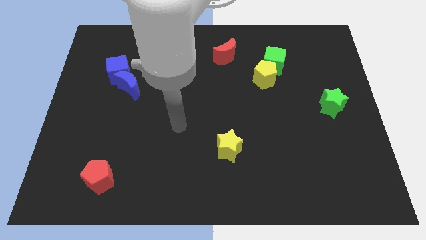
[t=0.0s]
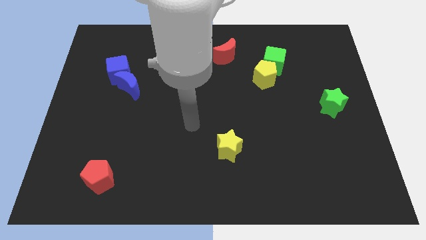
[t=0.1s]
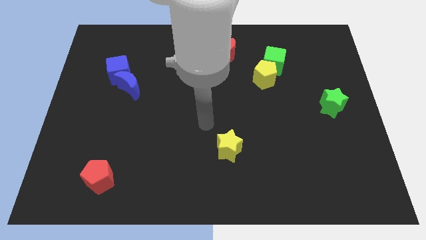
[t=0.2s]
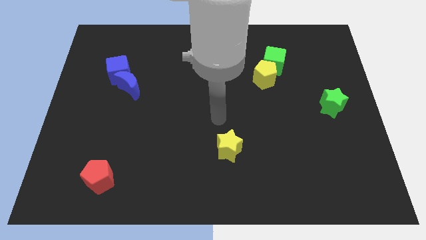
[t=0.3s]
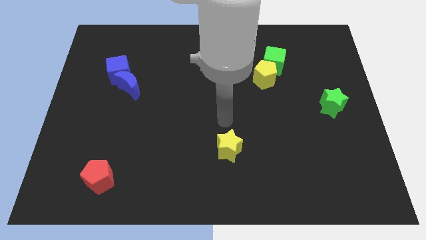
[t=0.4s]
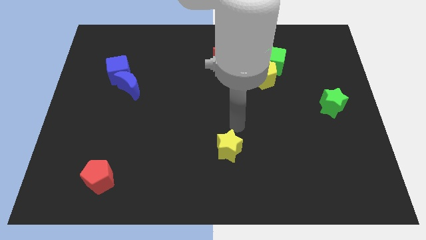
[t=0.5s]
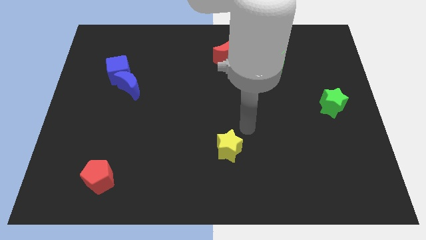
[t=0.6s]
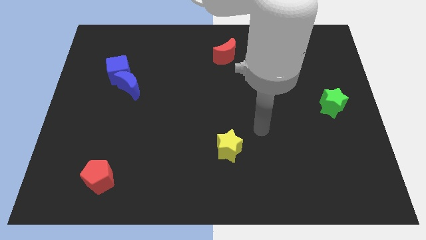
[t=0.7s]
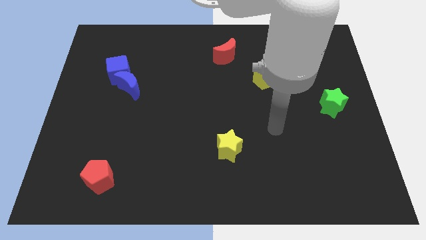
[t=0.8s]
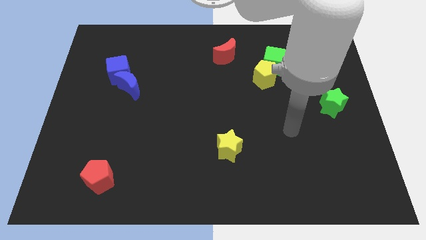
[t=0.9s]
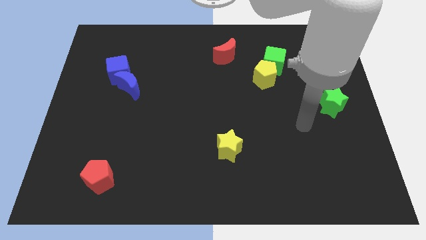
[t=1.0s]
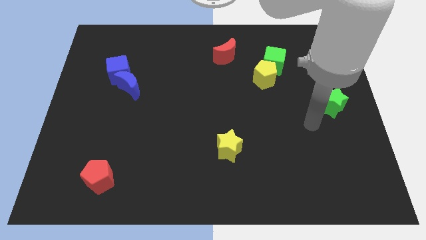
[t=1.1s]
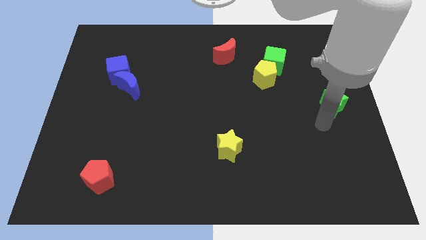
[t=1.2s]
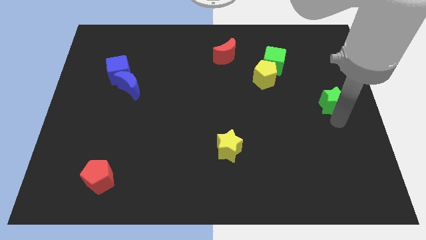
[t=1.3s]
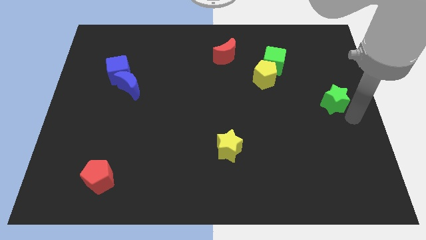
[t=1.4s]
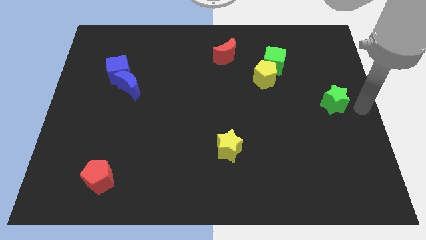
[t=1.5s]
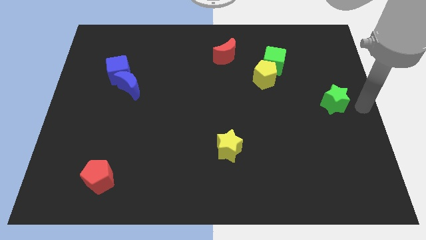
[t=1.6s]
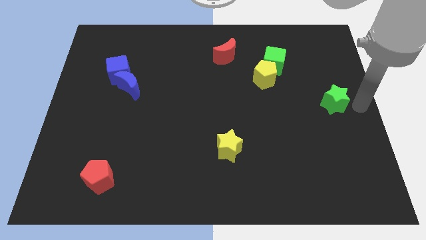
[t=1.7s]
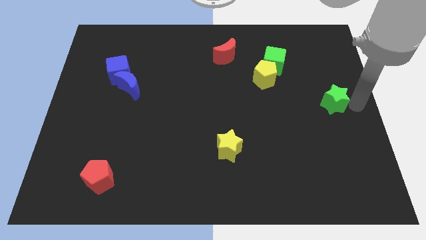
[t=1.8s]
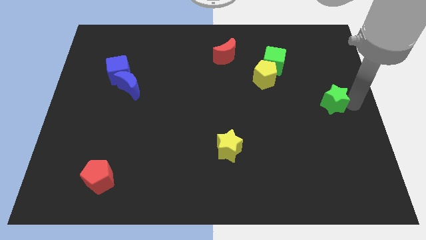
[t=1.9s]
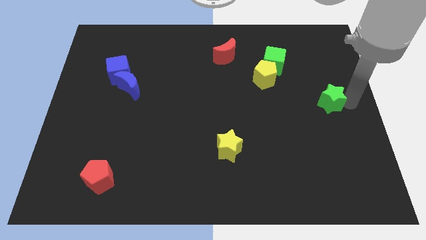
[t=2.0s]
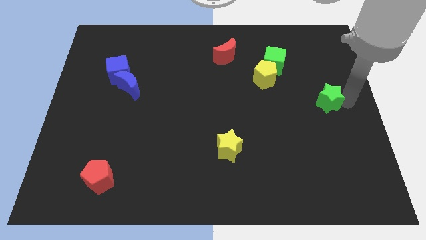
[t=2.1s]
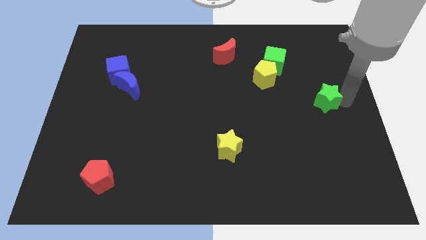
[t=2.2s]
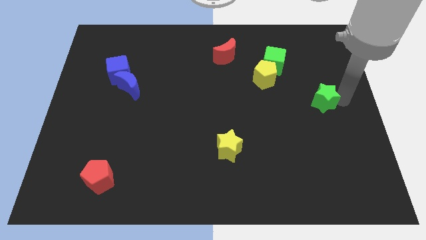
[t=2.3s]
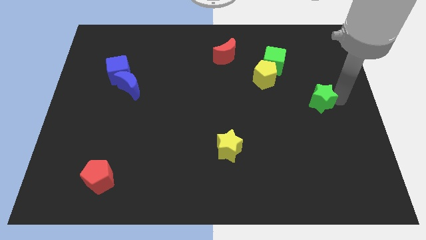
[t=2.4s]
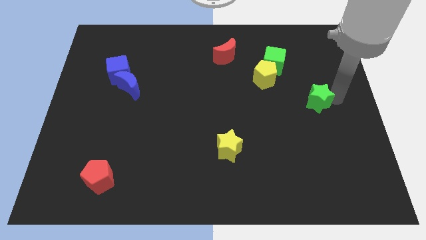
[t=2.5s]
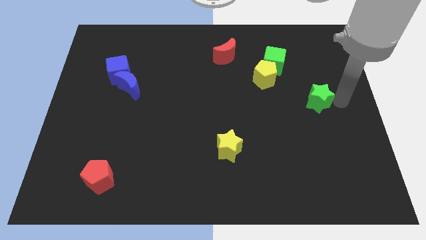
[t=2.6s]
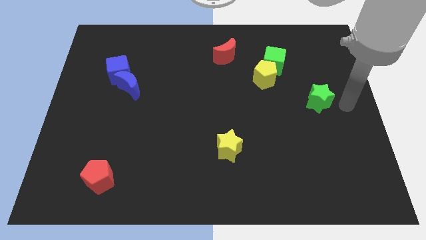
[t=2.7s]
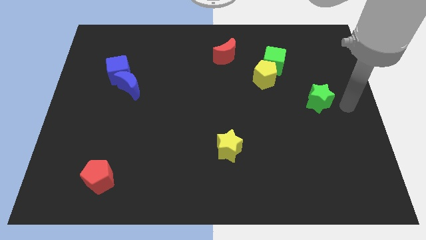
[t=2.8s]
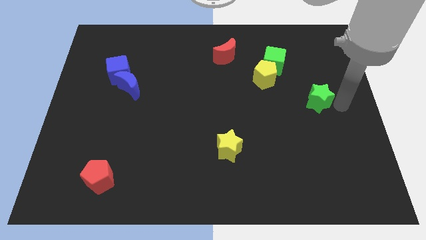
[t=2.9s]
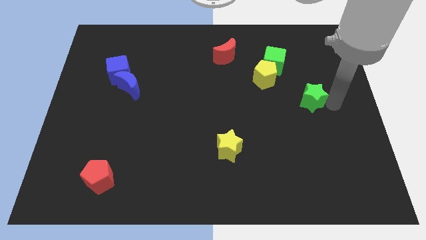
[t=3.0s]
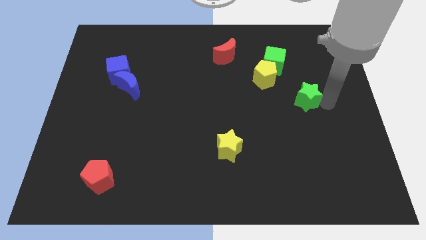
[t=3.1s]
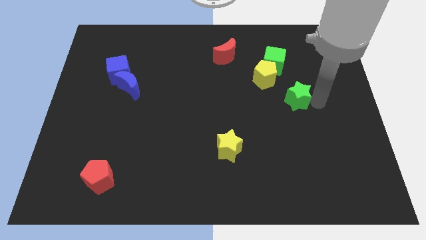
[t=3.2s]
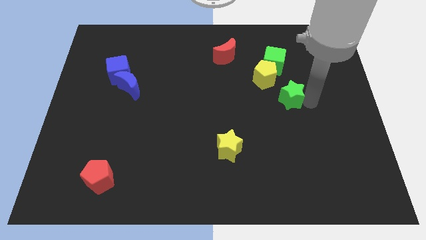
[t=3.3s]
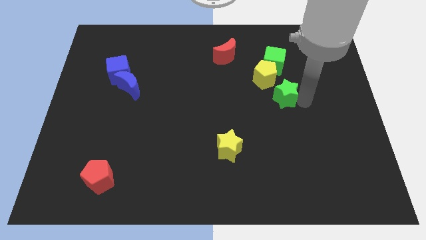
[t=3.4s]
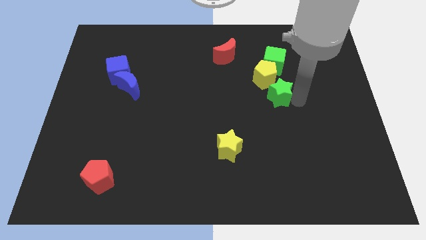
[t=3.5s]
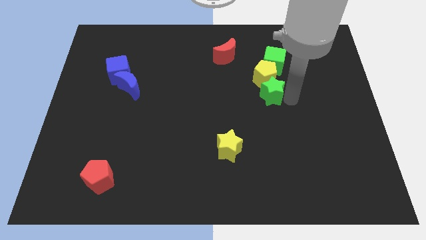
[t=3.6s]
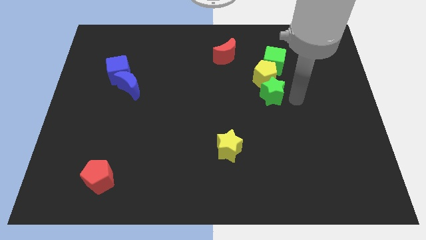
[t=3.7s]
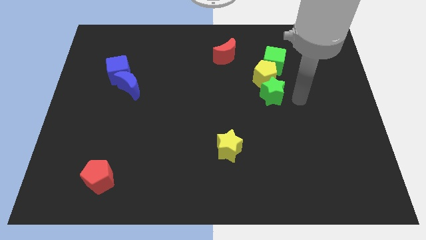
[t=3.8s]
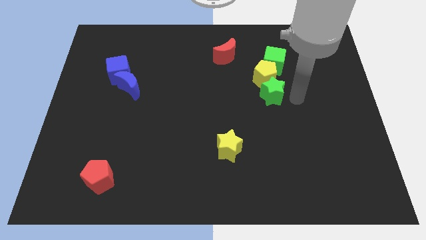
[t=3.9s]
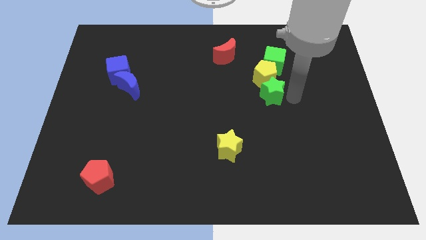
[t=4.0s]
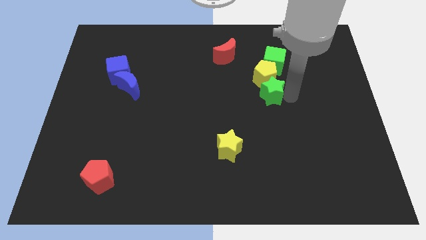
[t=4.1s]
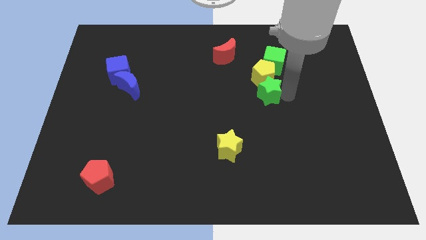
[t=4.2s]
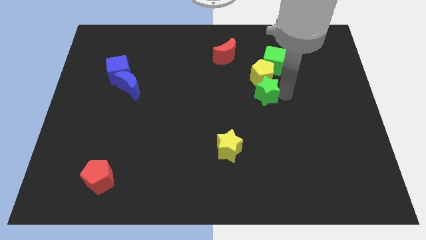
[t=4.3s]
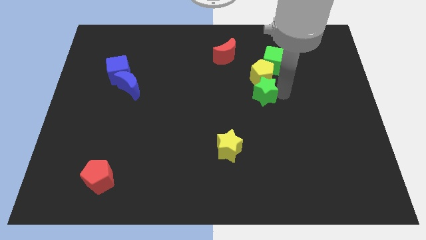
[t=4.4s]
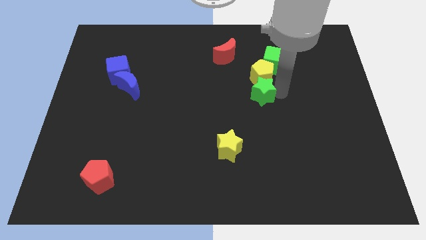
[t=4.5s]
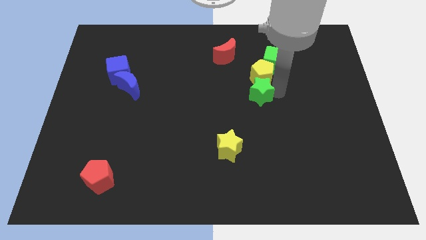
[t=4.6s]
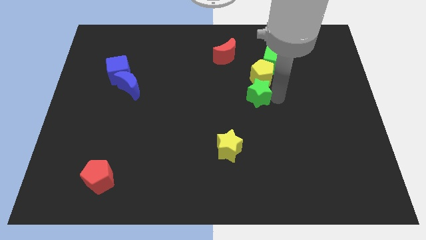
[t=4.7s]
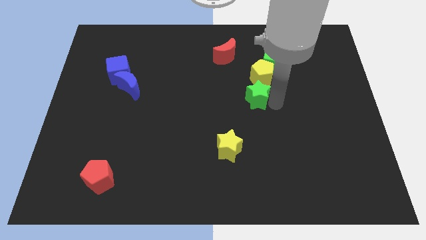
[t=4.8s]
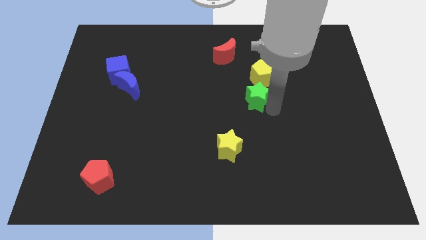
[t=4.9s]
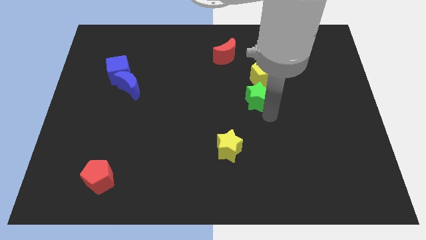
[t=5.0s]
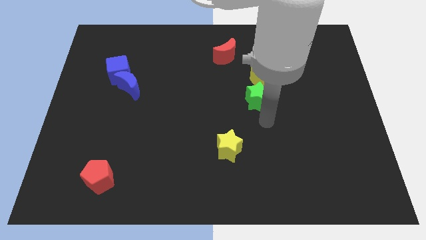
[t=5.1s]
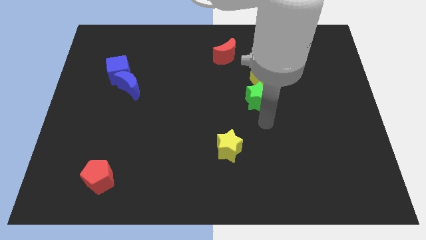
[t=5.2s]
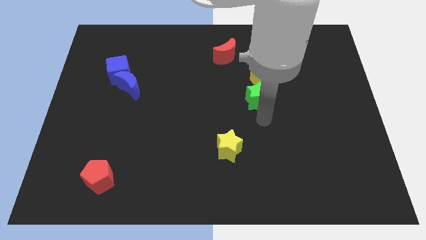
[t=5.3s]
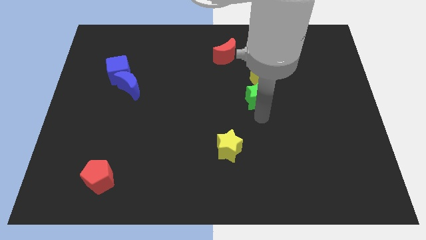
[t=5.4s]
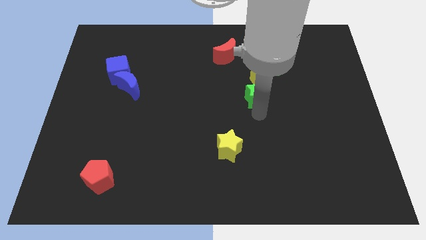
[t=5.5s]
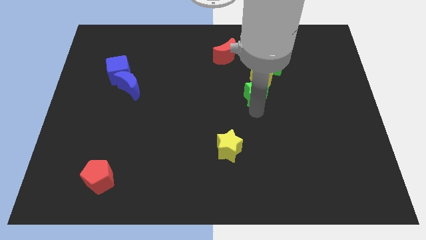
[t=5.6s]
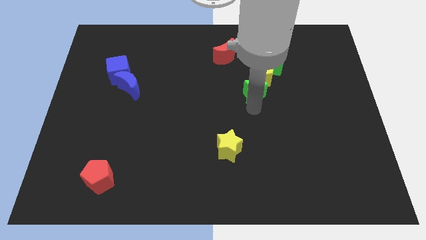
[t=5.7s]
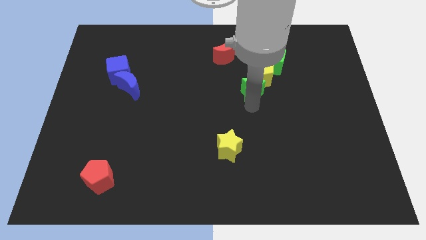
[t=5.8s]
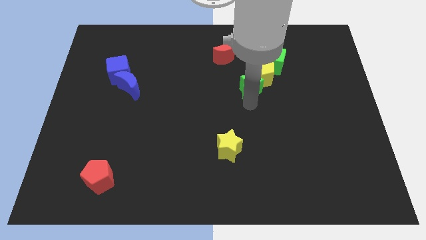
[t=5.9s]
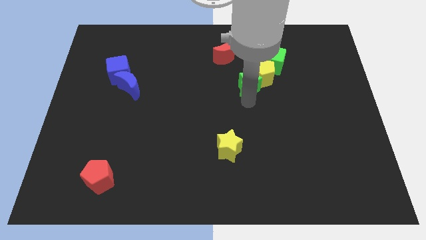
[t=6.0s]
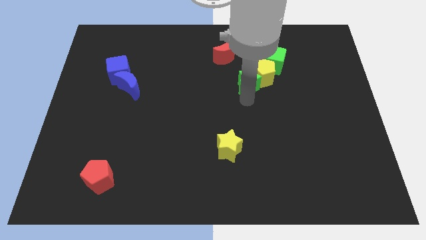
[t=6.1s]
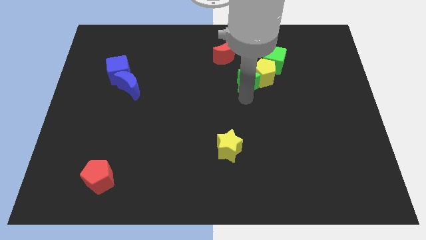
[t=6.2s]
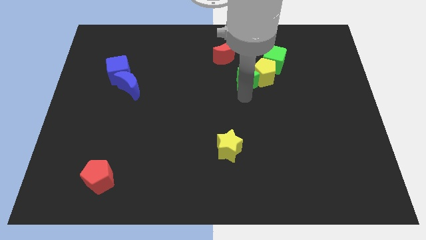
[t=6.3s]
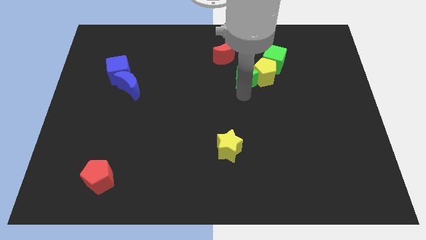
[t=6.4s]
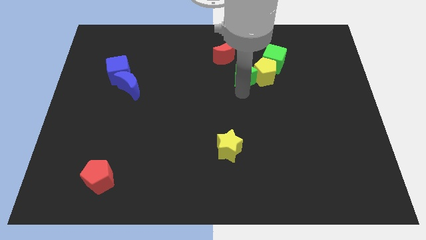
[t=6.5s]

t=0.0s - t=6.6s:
put the green star to the top left side of the yellow pentagon

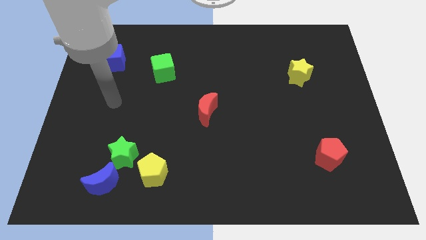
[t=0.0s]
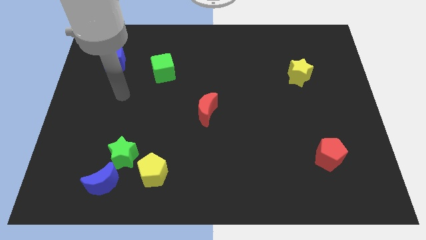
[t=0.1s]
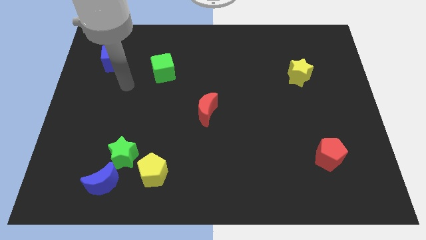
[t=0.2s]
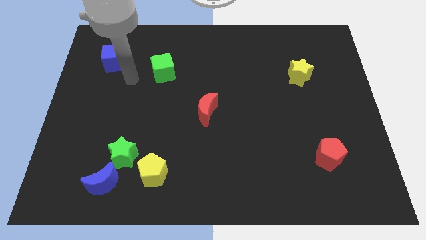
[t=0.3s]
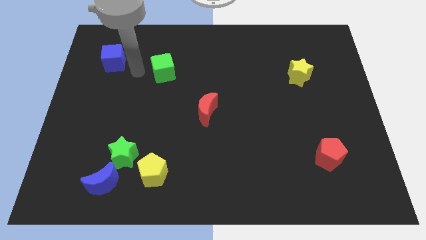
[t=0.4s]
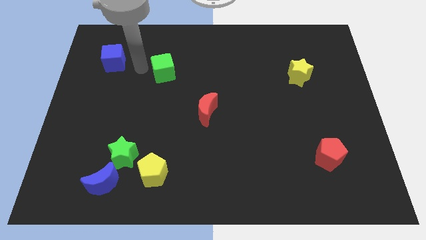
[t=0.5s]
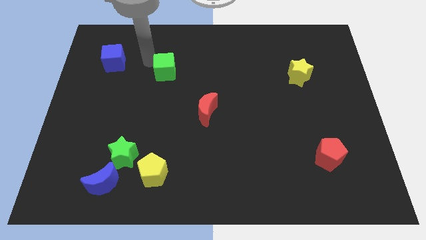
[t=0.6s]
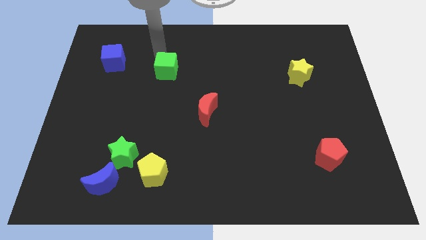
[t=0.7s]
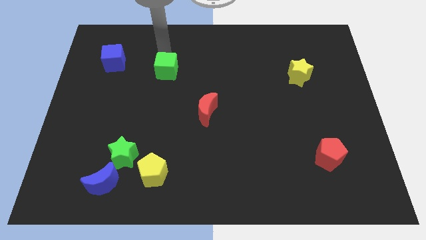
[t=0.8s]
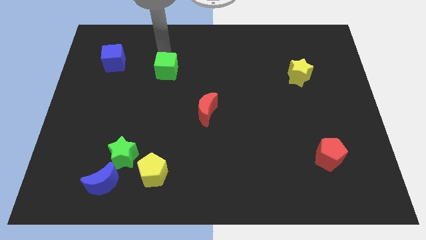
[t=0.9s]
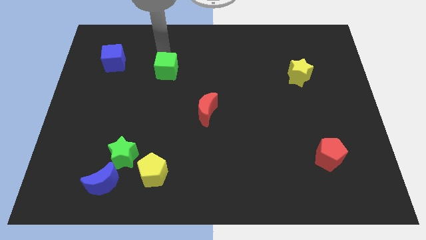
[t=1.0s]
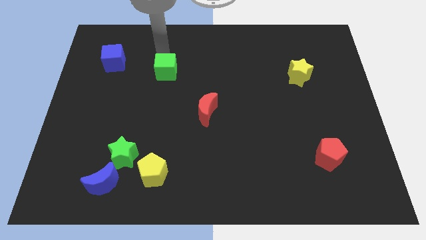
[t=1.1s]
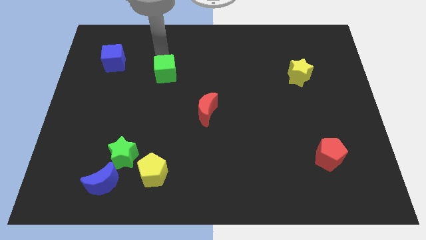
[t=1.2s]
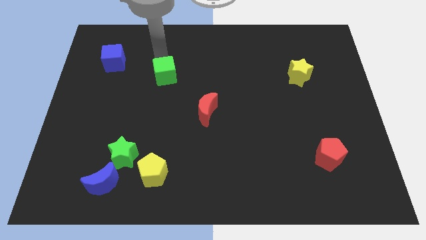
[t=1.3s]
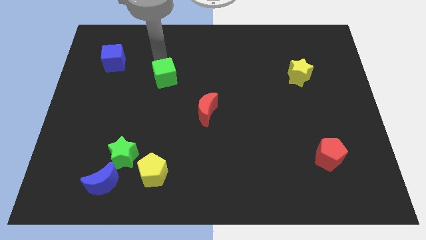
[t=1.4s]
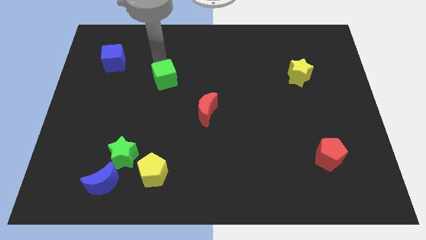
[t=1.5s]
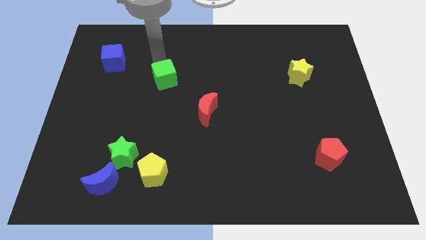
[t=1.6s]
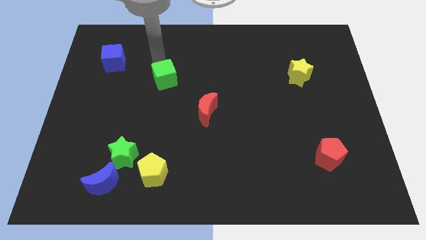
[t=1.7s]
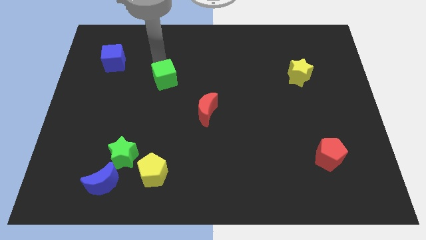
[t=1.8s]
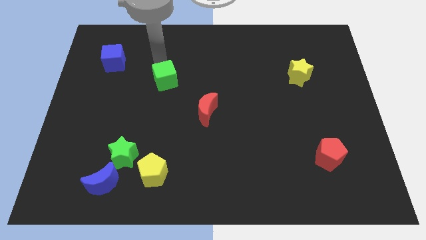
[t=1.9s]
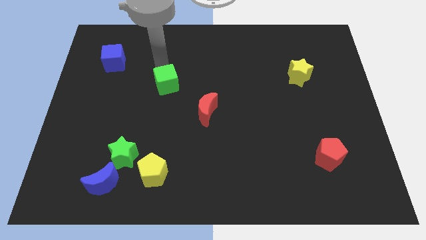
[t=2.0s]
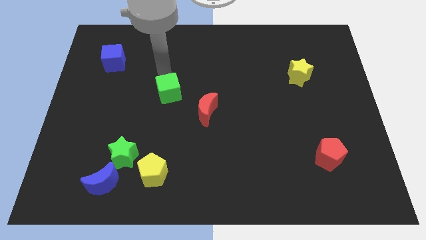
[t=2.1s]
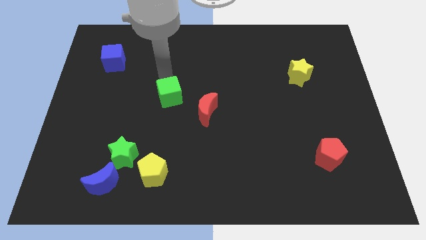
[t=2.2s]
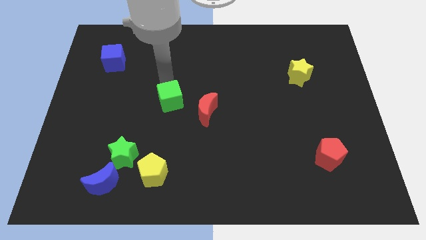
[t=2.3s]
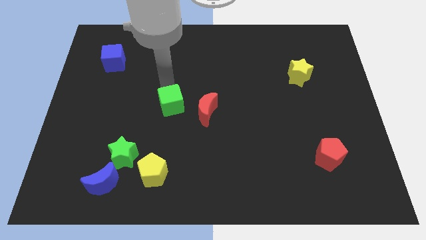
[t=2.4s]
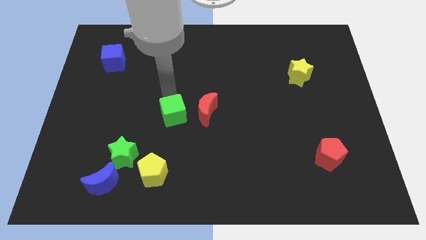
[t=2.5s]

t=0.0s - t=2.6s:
move the green cube to the bottom left side of the red moon
